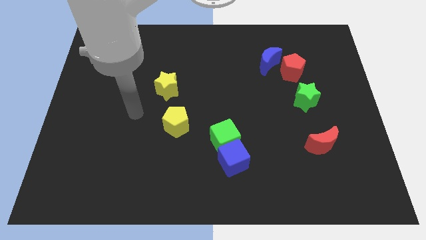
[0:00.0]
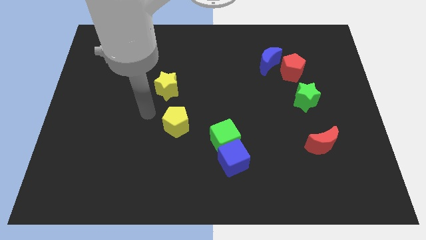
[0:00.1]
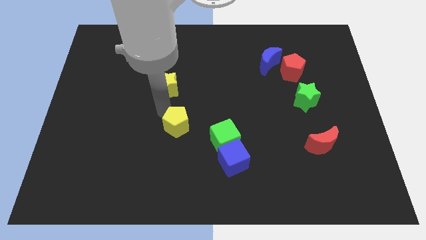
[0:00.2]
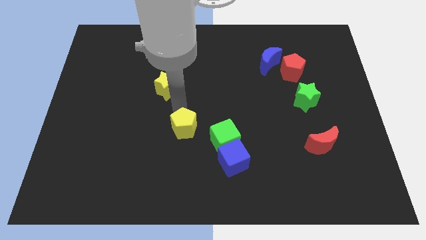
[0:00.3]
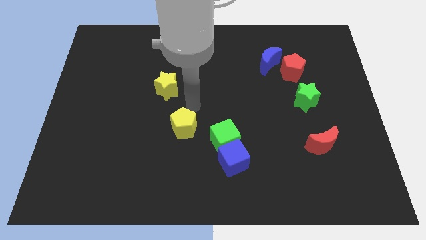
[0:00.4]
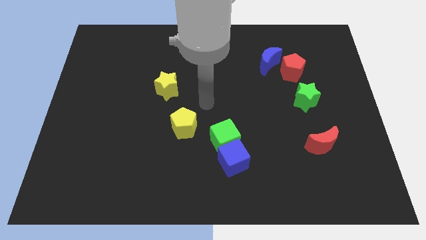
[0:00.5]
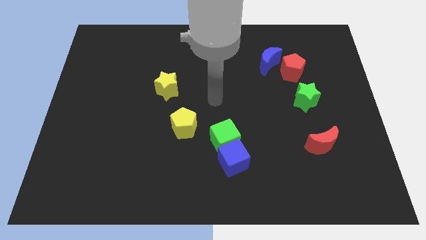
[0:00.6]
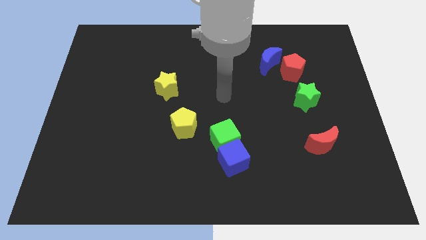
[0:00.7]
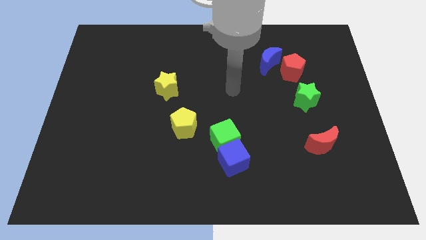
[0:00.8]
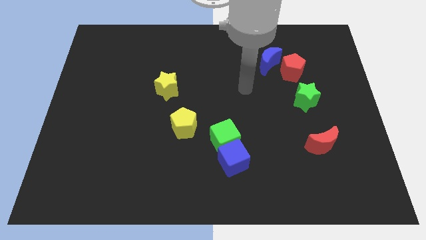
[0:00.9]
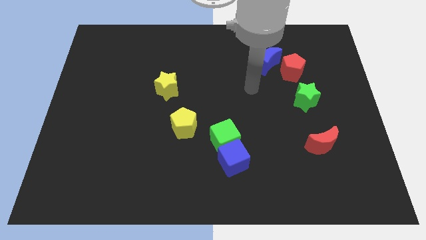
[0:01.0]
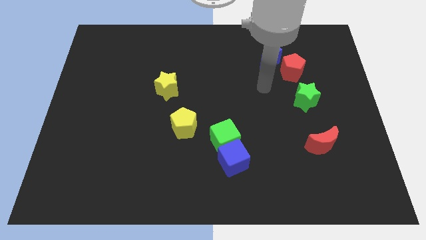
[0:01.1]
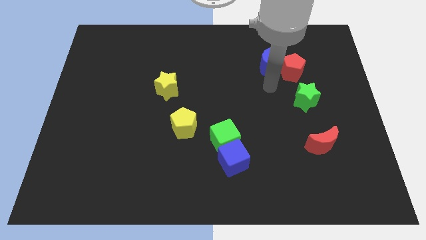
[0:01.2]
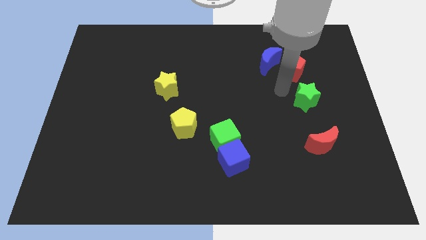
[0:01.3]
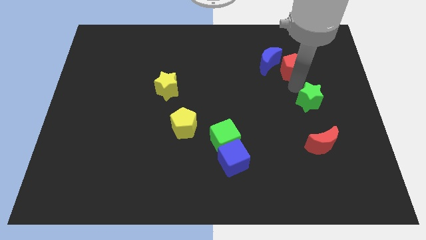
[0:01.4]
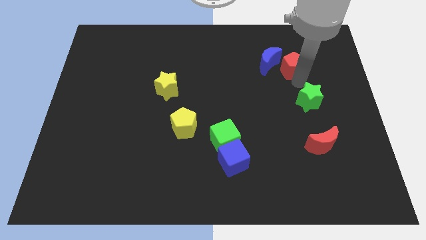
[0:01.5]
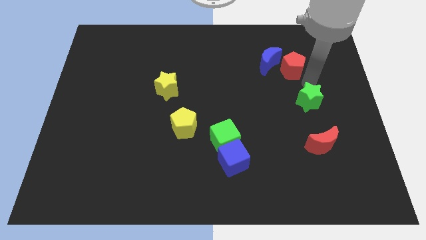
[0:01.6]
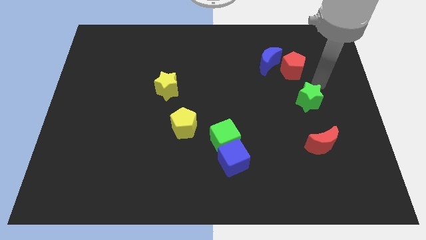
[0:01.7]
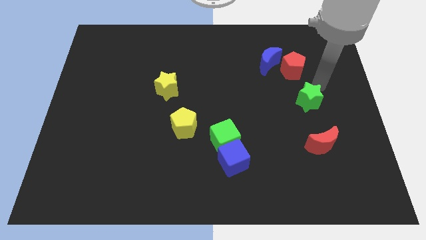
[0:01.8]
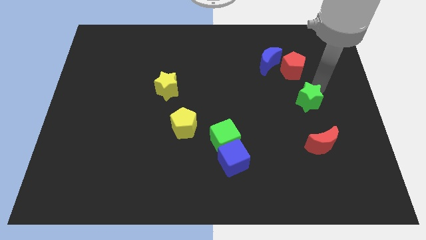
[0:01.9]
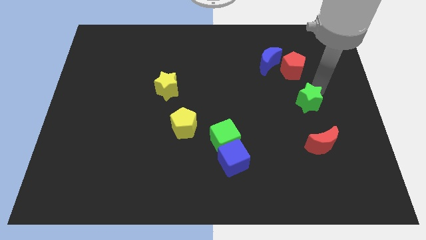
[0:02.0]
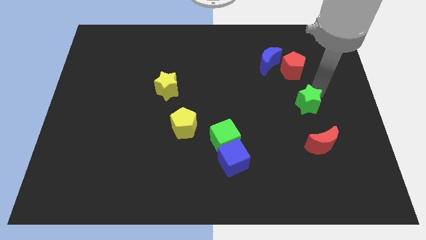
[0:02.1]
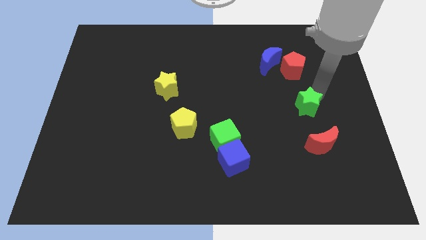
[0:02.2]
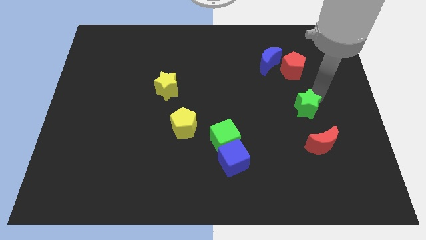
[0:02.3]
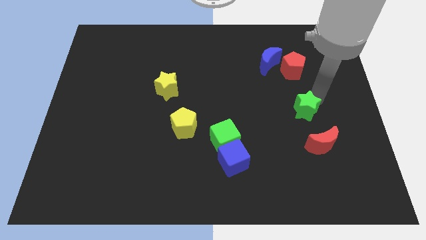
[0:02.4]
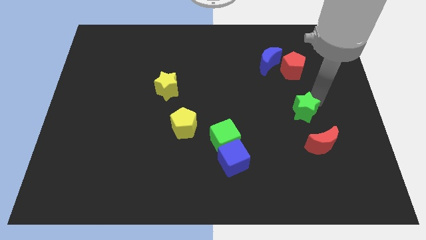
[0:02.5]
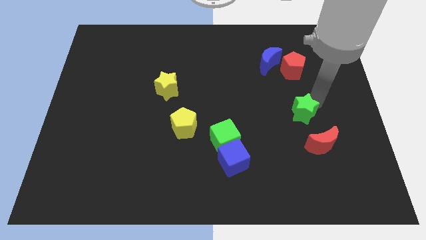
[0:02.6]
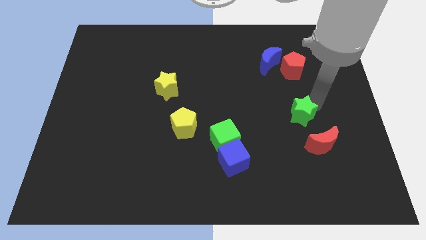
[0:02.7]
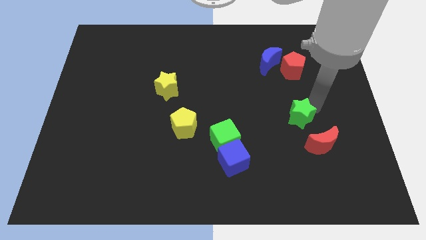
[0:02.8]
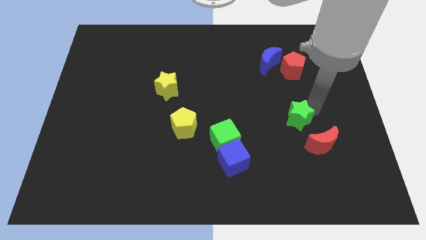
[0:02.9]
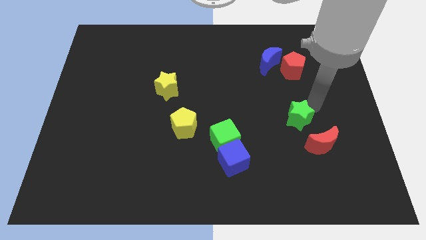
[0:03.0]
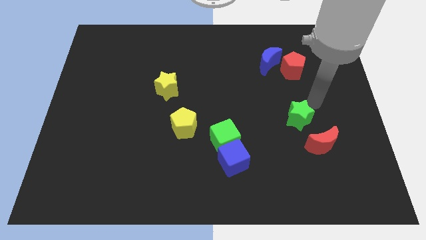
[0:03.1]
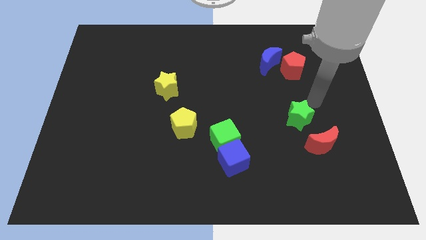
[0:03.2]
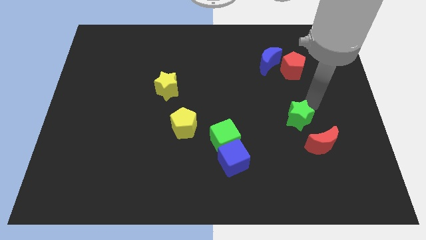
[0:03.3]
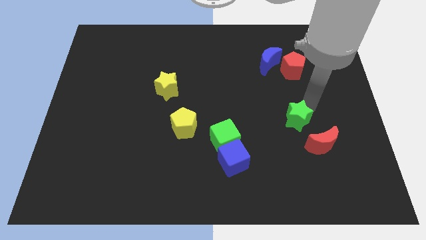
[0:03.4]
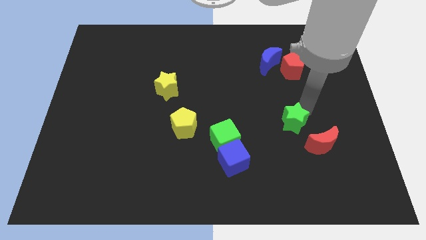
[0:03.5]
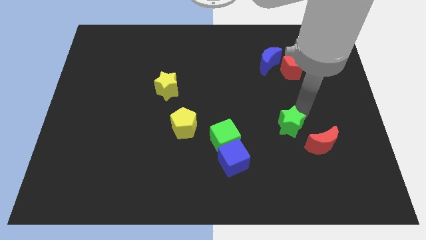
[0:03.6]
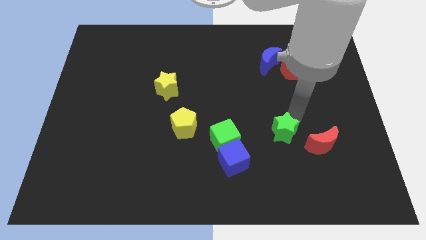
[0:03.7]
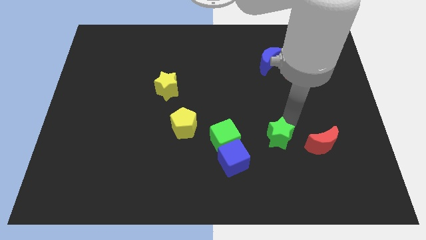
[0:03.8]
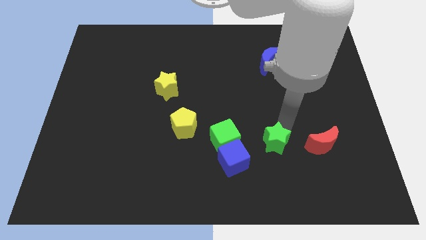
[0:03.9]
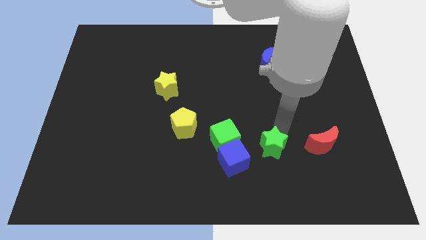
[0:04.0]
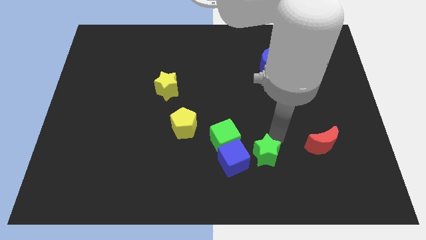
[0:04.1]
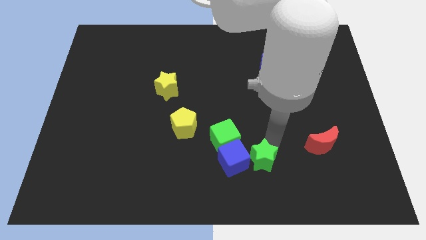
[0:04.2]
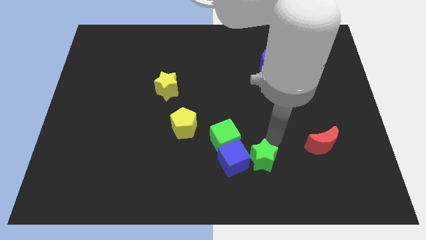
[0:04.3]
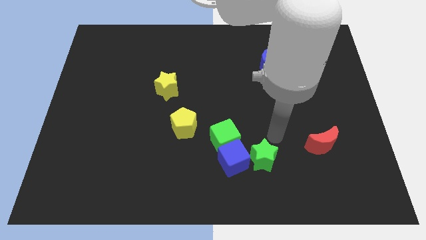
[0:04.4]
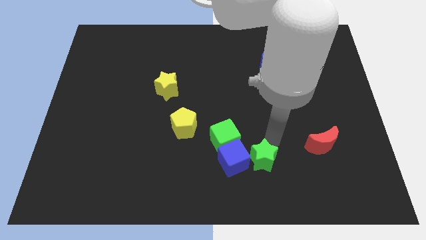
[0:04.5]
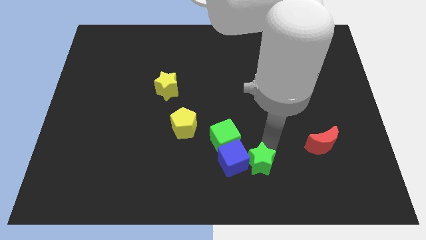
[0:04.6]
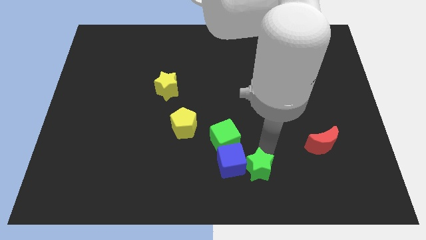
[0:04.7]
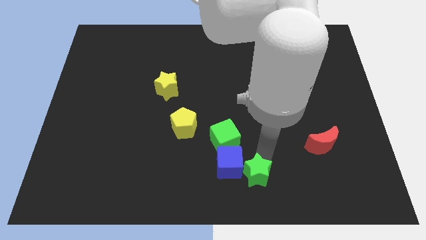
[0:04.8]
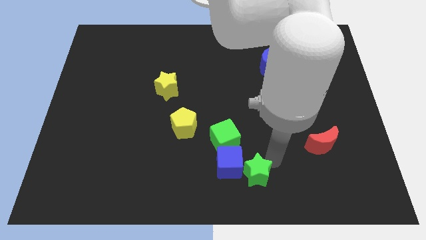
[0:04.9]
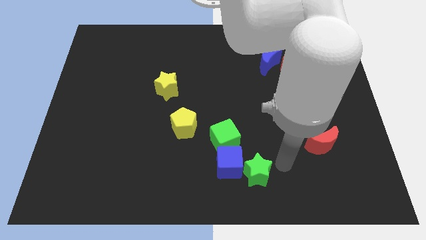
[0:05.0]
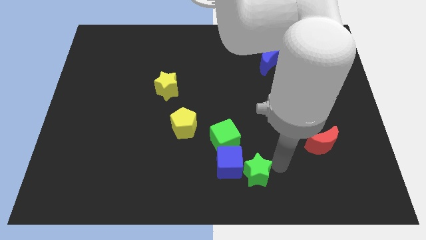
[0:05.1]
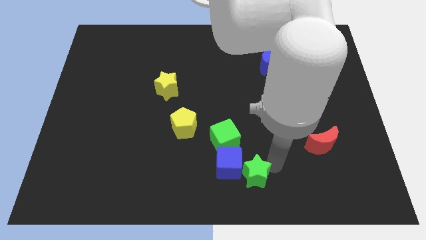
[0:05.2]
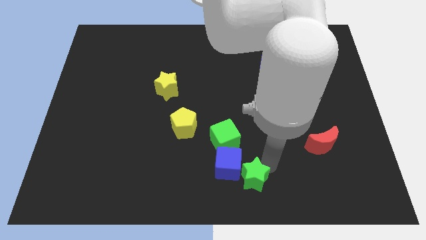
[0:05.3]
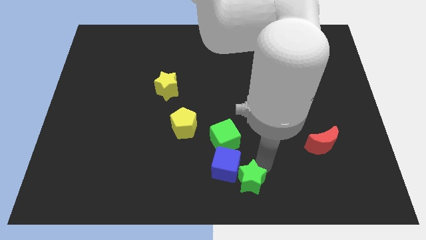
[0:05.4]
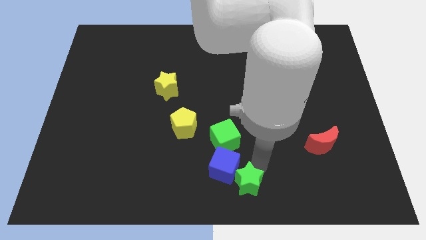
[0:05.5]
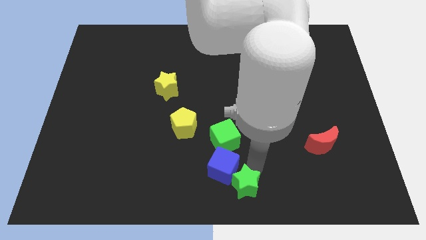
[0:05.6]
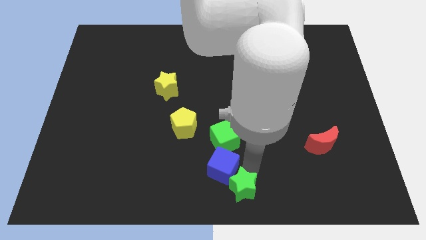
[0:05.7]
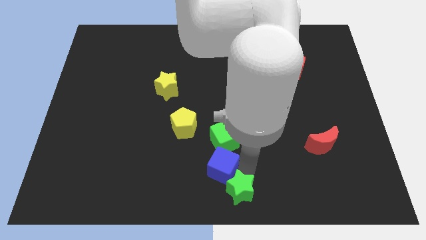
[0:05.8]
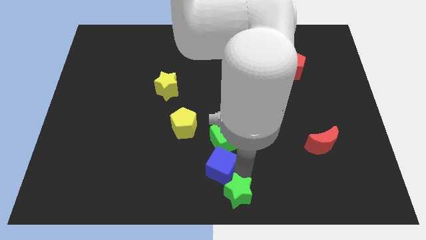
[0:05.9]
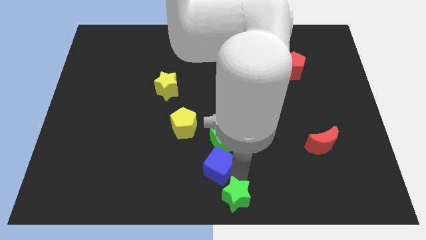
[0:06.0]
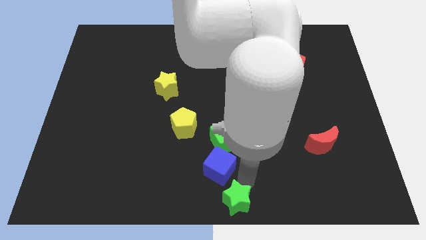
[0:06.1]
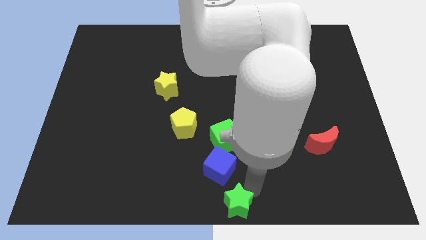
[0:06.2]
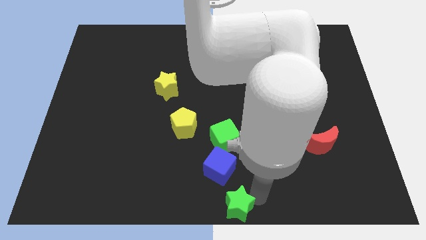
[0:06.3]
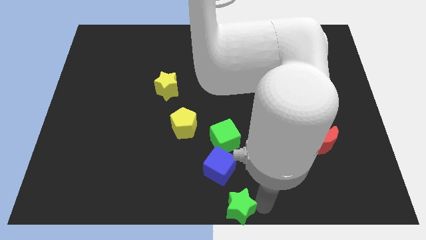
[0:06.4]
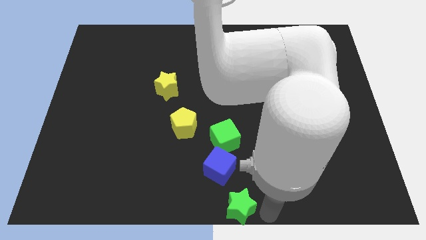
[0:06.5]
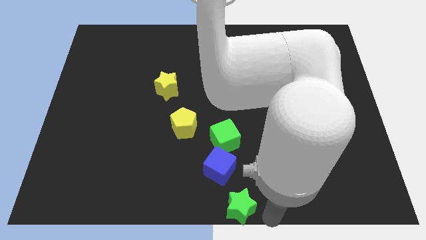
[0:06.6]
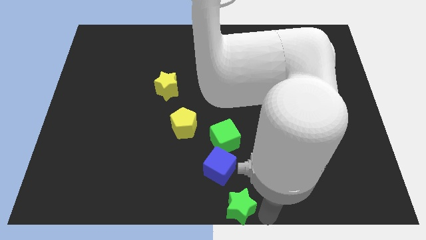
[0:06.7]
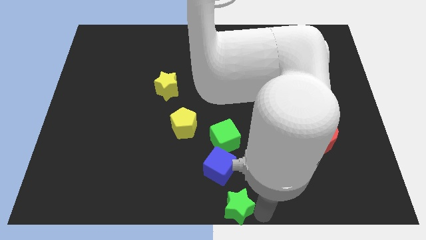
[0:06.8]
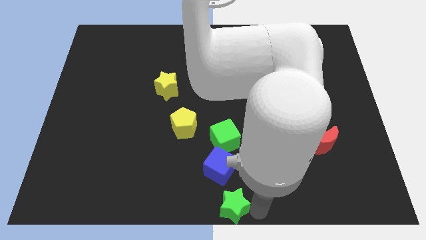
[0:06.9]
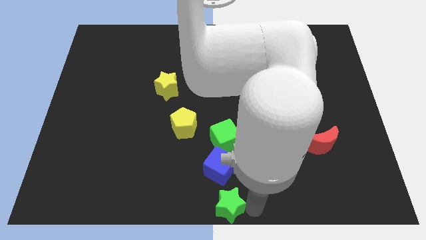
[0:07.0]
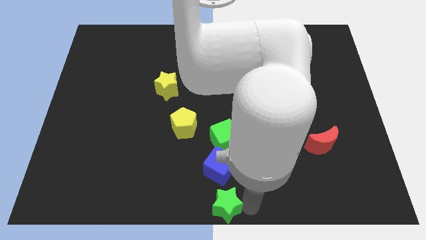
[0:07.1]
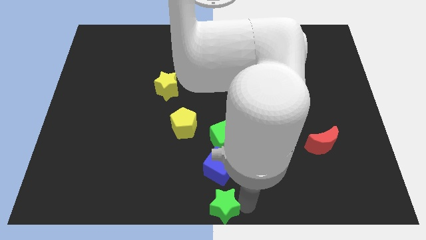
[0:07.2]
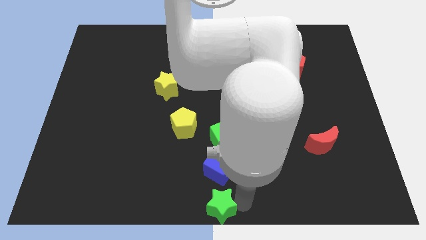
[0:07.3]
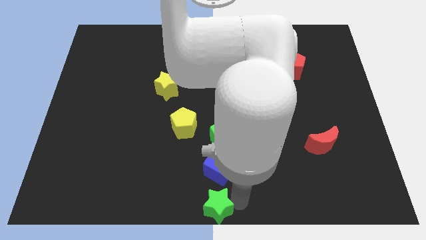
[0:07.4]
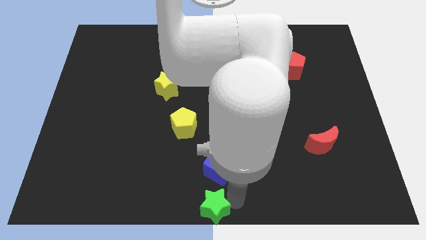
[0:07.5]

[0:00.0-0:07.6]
slide the green star diagonally down and to the left of the blue cube
